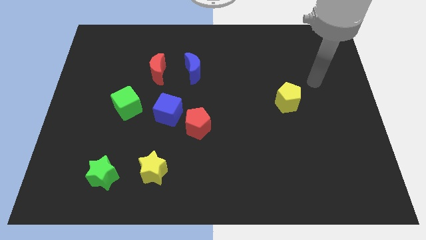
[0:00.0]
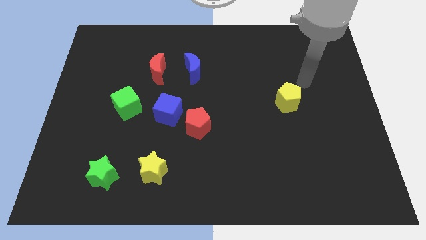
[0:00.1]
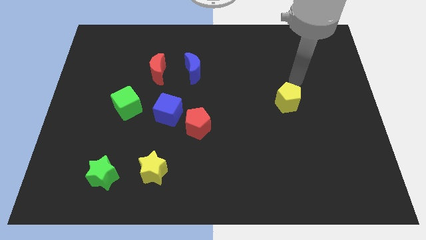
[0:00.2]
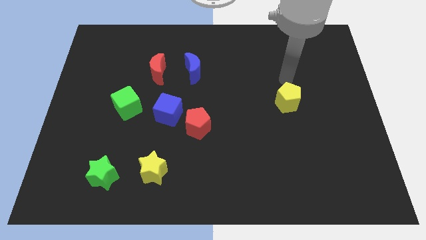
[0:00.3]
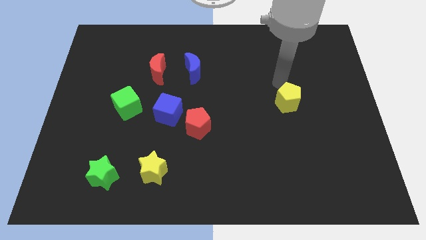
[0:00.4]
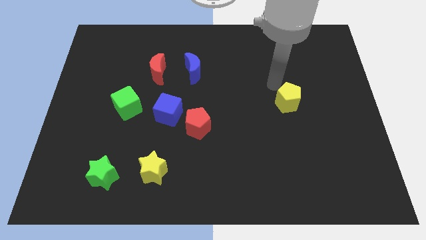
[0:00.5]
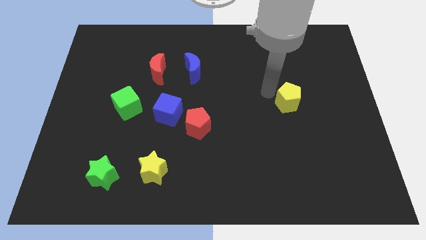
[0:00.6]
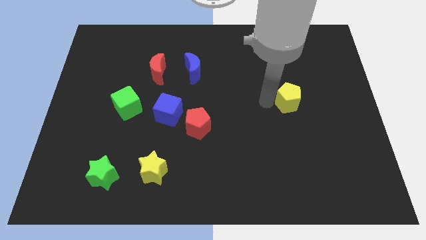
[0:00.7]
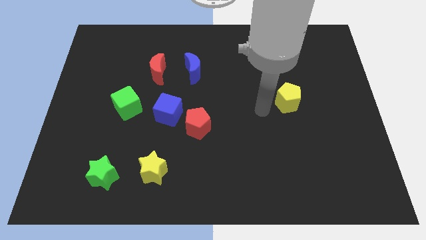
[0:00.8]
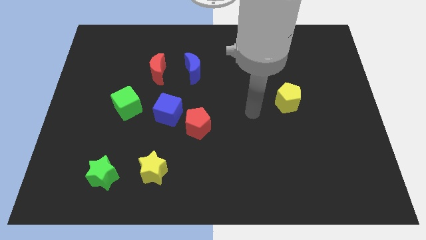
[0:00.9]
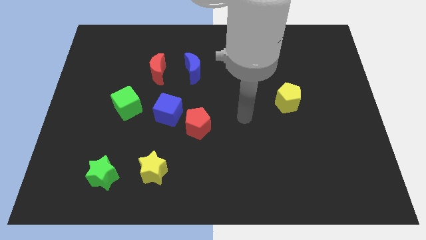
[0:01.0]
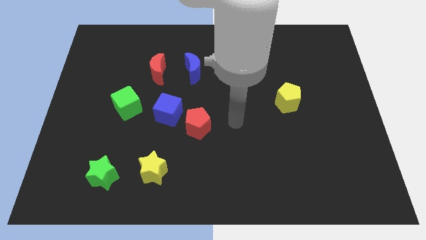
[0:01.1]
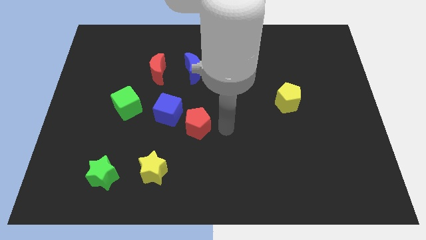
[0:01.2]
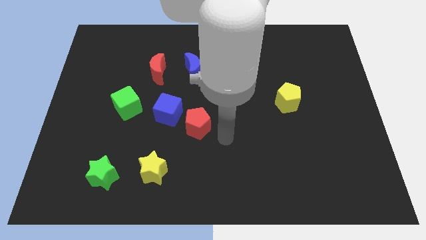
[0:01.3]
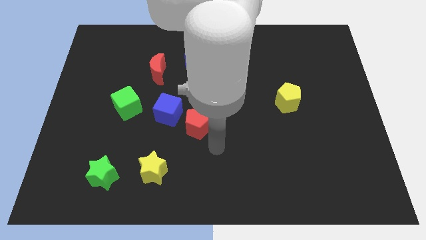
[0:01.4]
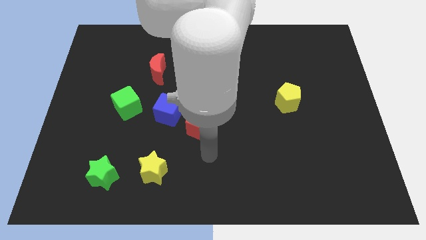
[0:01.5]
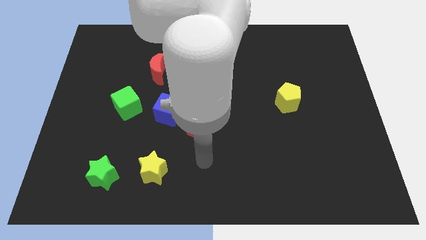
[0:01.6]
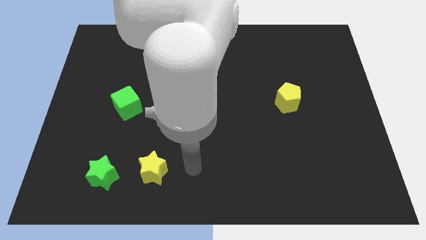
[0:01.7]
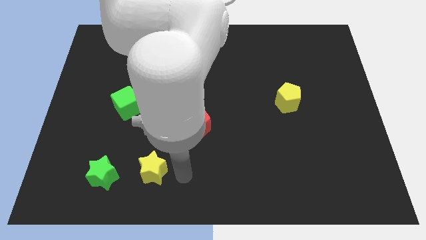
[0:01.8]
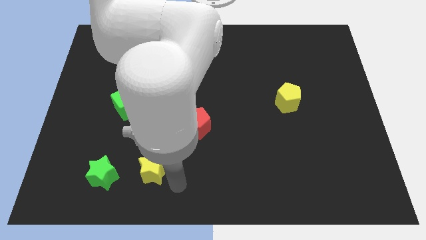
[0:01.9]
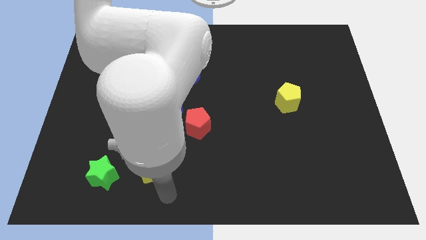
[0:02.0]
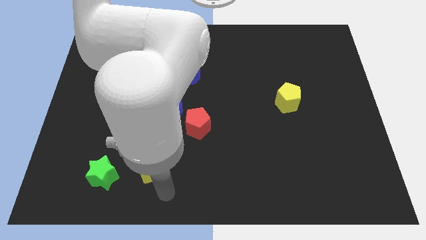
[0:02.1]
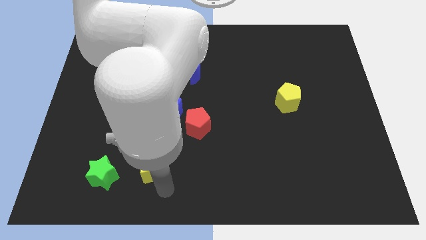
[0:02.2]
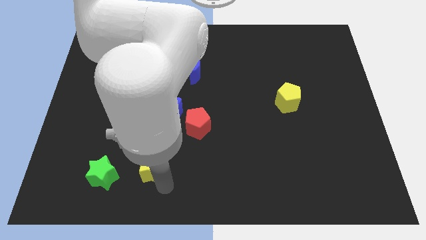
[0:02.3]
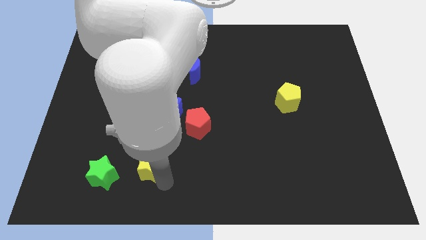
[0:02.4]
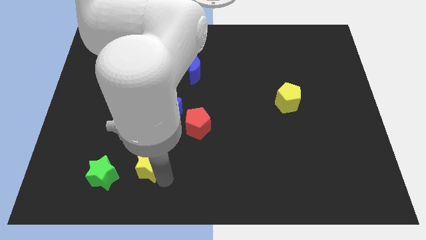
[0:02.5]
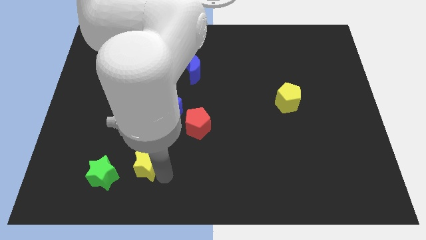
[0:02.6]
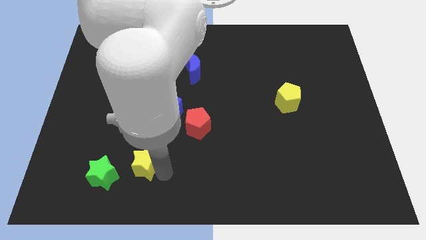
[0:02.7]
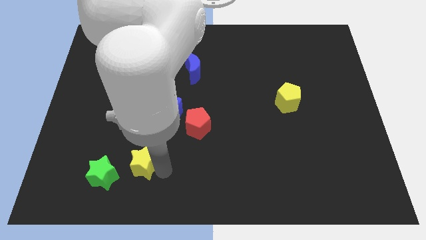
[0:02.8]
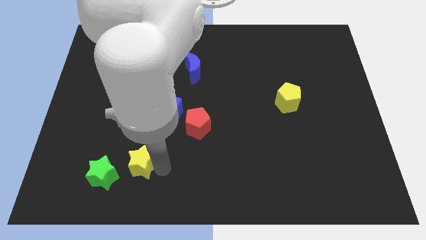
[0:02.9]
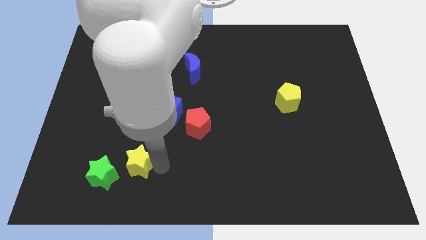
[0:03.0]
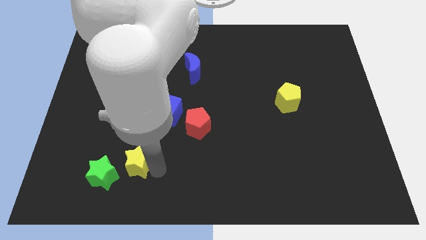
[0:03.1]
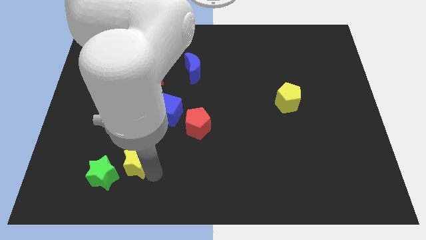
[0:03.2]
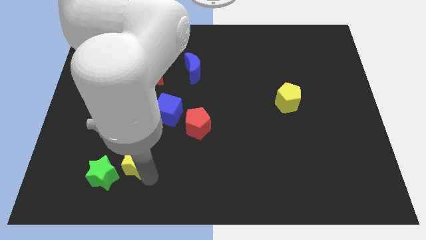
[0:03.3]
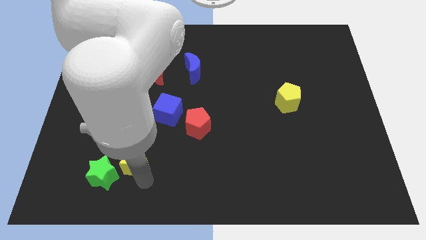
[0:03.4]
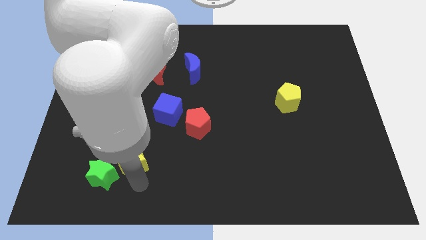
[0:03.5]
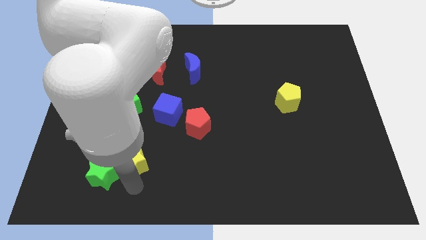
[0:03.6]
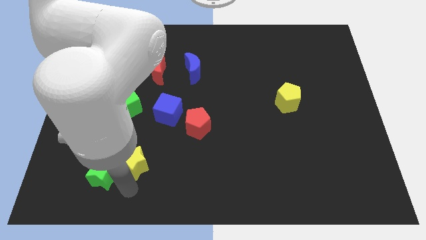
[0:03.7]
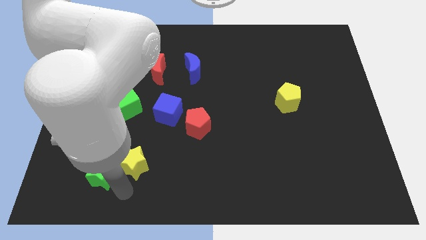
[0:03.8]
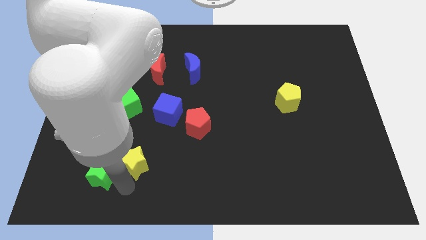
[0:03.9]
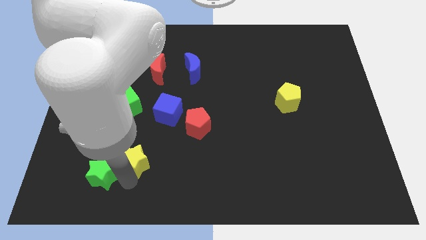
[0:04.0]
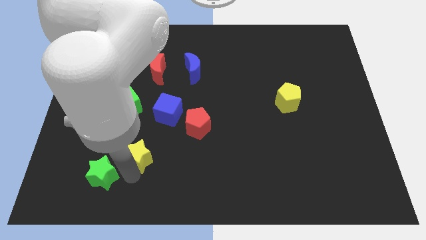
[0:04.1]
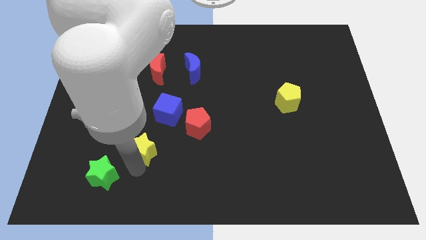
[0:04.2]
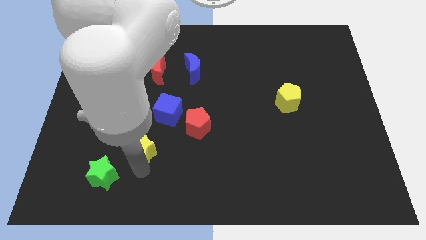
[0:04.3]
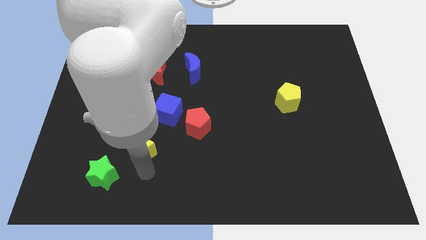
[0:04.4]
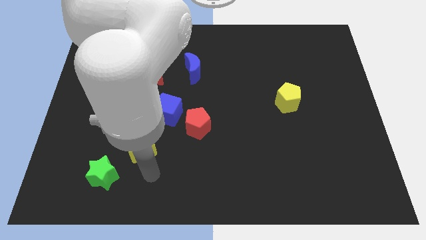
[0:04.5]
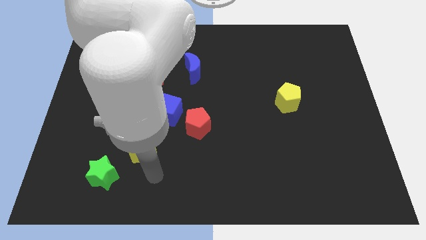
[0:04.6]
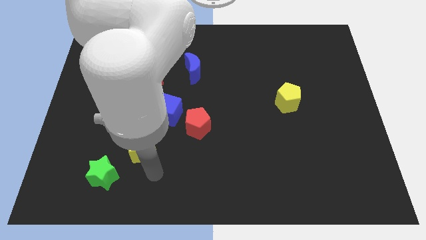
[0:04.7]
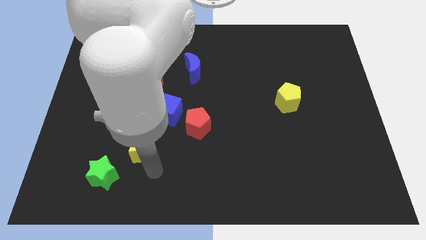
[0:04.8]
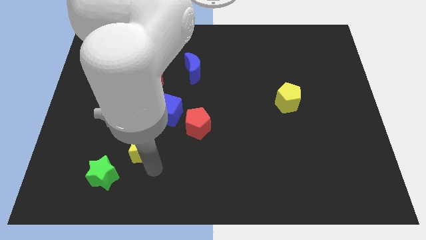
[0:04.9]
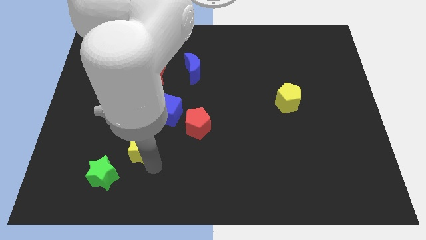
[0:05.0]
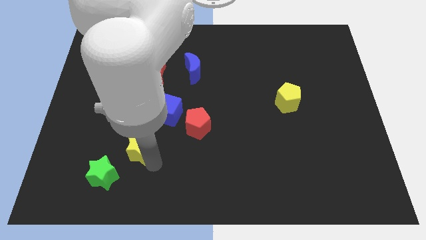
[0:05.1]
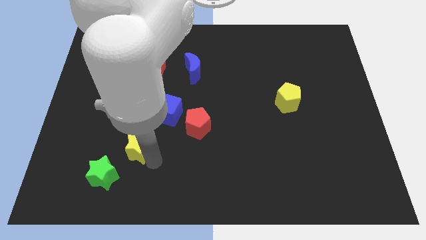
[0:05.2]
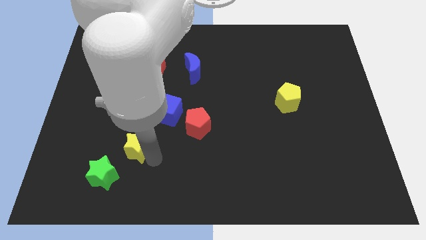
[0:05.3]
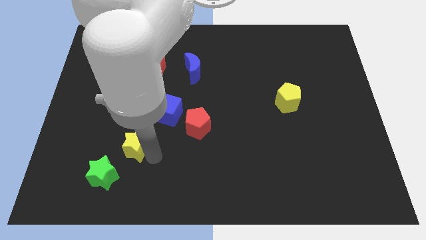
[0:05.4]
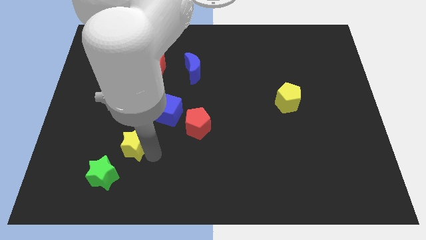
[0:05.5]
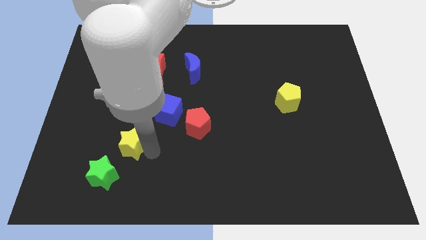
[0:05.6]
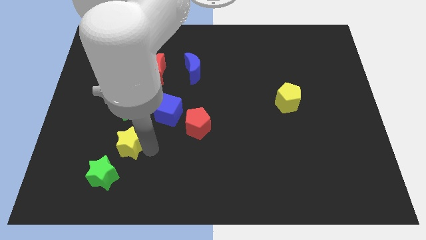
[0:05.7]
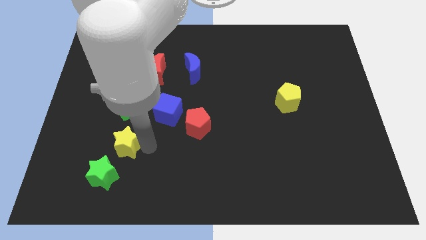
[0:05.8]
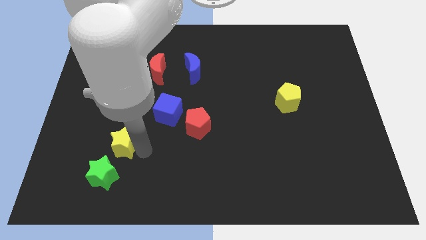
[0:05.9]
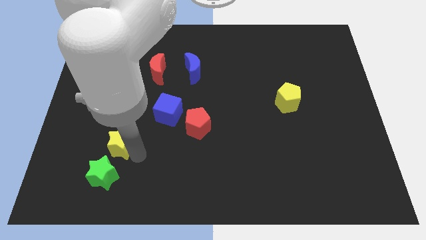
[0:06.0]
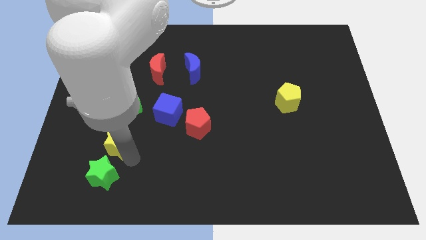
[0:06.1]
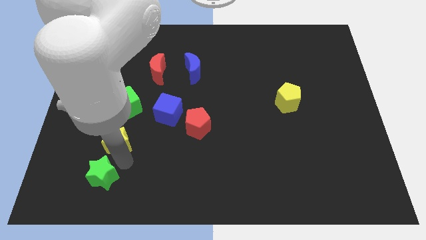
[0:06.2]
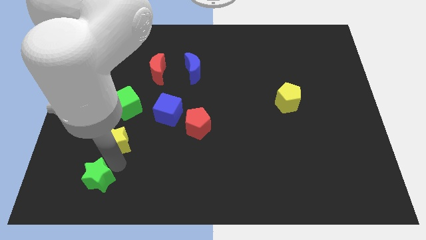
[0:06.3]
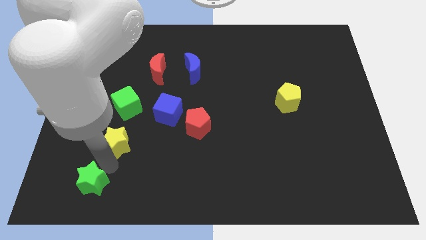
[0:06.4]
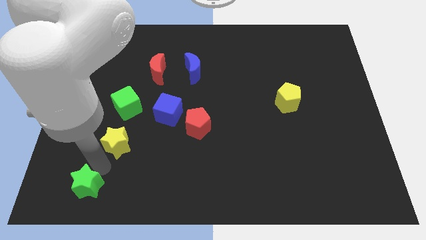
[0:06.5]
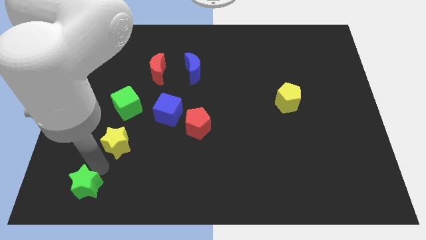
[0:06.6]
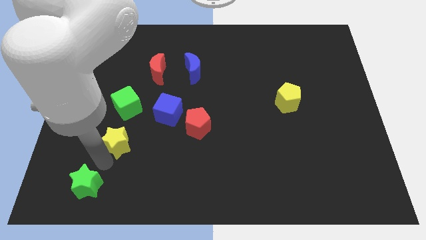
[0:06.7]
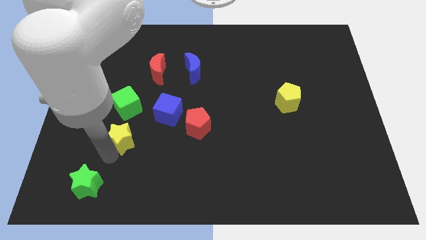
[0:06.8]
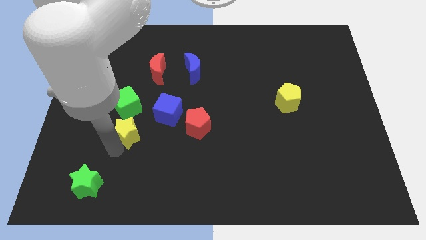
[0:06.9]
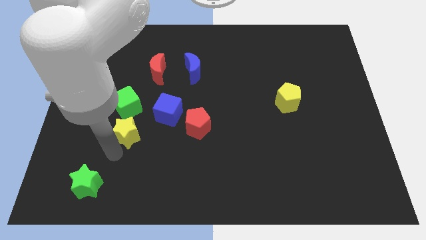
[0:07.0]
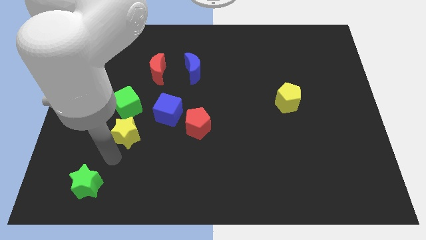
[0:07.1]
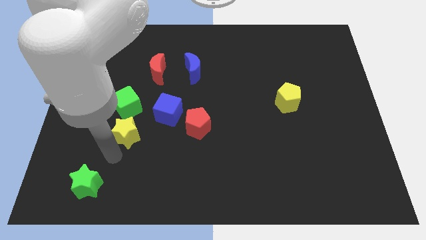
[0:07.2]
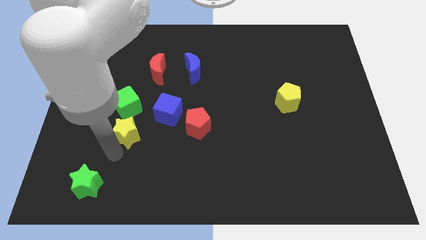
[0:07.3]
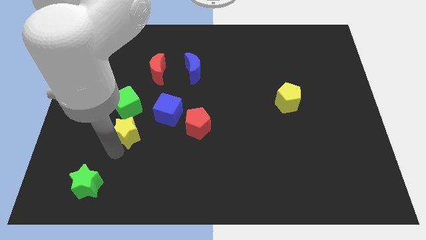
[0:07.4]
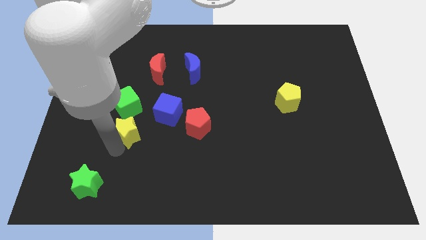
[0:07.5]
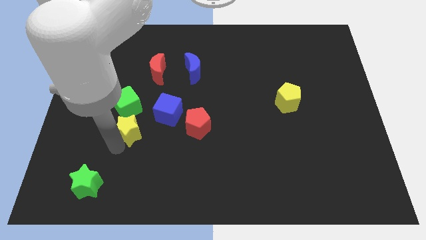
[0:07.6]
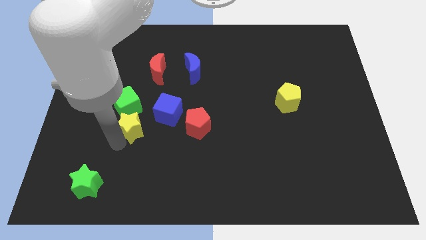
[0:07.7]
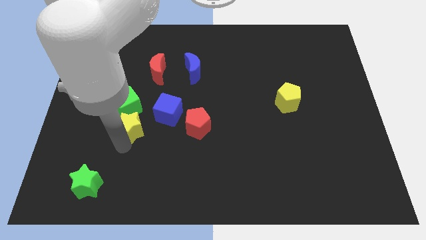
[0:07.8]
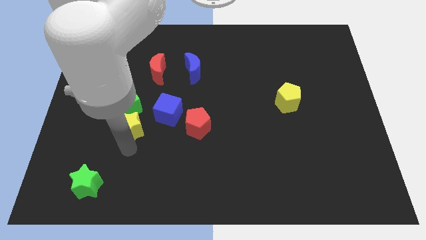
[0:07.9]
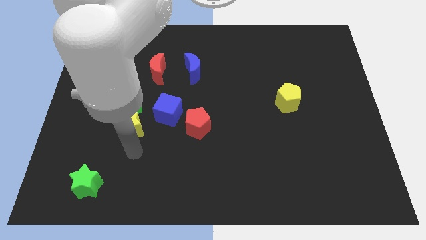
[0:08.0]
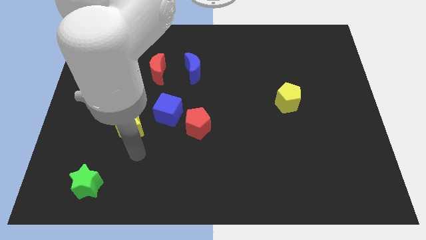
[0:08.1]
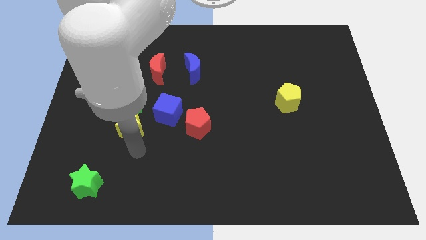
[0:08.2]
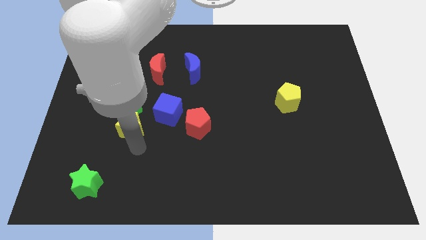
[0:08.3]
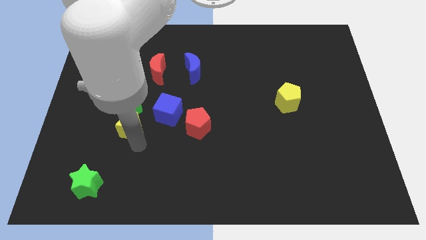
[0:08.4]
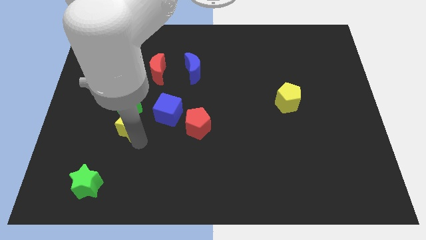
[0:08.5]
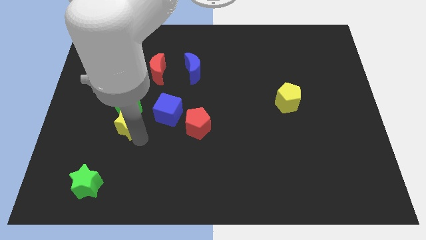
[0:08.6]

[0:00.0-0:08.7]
move the yellow star towards the green cube
